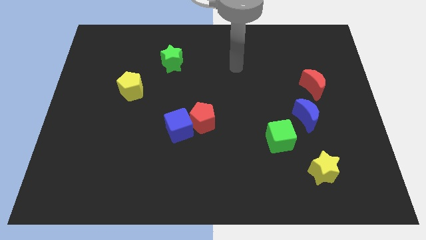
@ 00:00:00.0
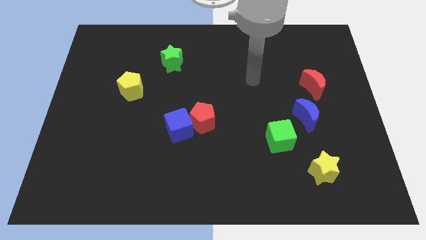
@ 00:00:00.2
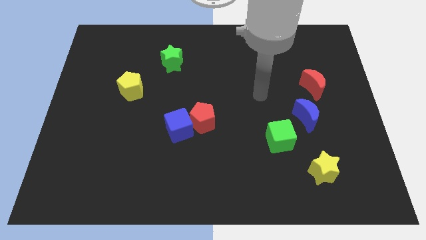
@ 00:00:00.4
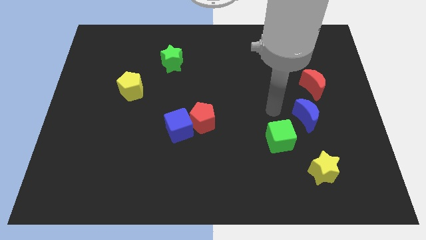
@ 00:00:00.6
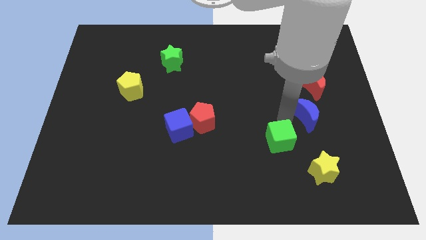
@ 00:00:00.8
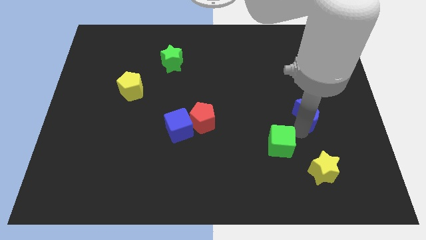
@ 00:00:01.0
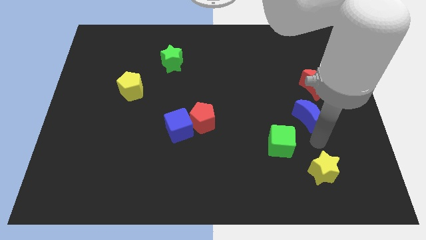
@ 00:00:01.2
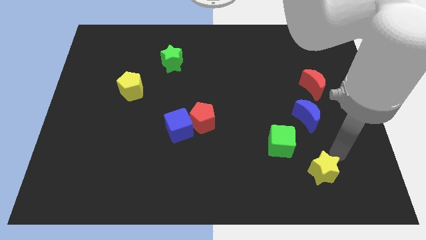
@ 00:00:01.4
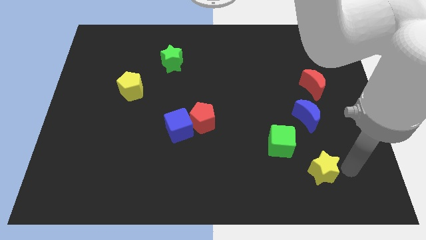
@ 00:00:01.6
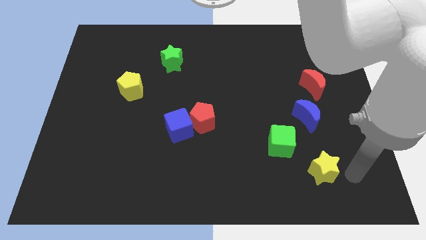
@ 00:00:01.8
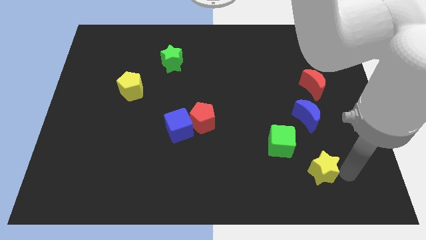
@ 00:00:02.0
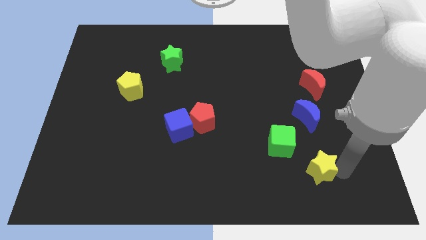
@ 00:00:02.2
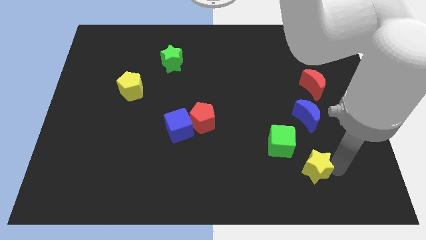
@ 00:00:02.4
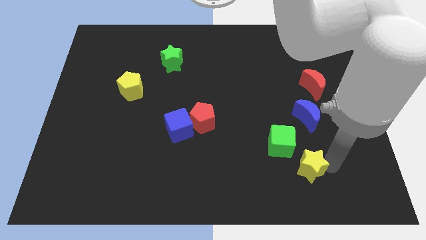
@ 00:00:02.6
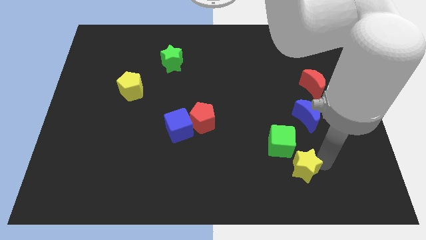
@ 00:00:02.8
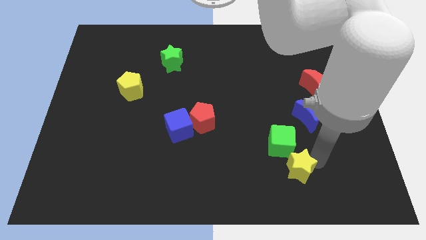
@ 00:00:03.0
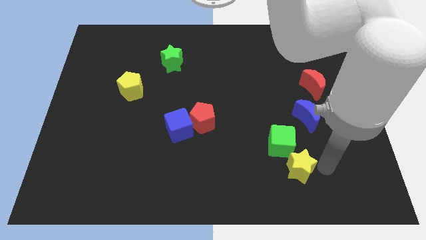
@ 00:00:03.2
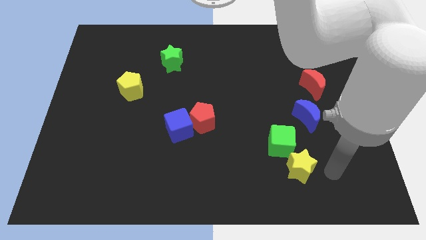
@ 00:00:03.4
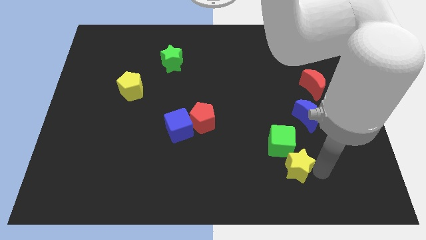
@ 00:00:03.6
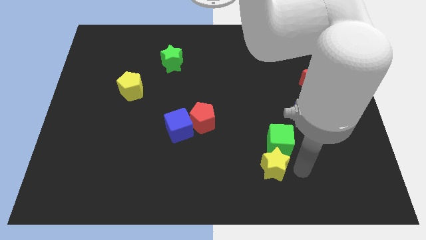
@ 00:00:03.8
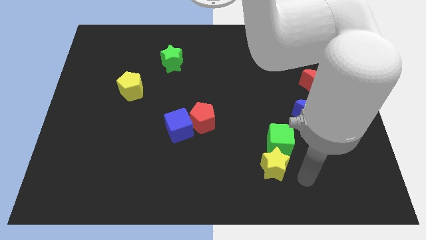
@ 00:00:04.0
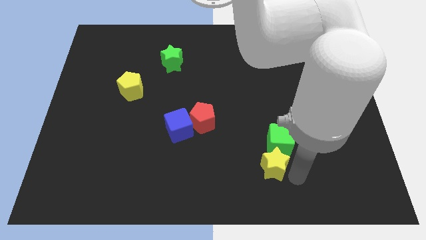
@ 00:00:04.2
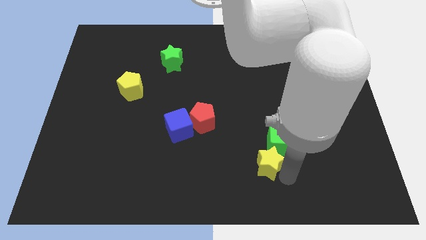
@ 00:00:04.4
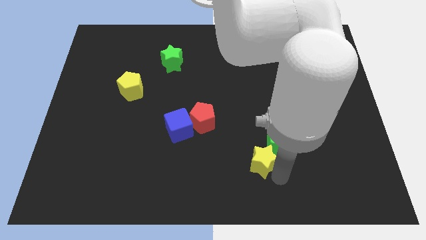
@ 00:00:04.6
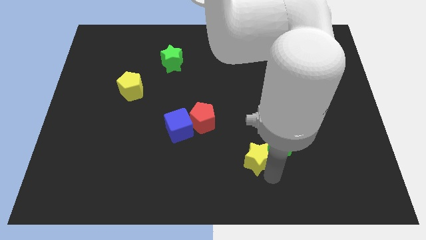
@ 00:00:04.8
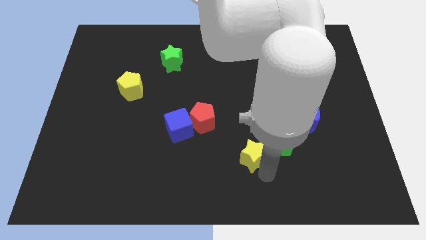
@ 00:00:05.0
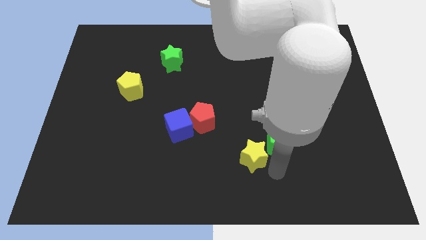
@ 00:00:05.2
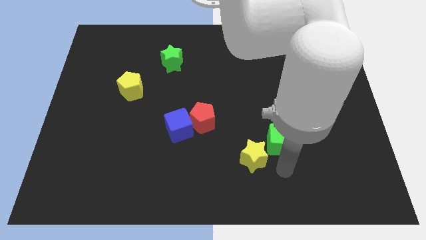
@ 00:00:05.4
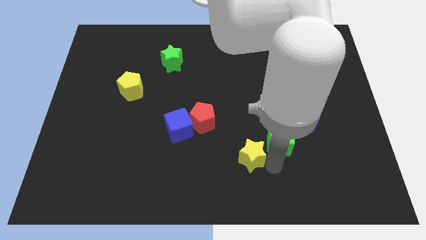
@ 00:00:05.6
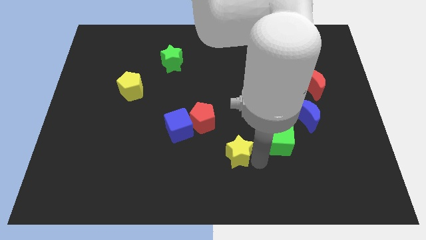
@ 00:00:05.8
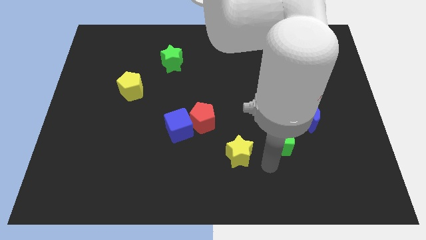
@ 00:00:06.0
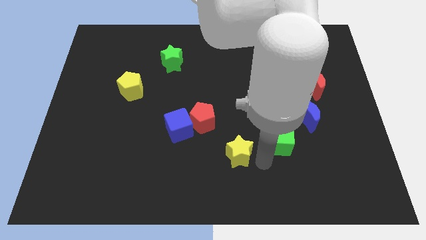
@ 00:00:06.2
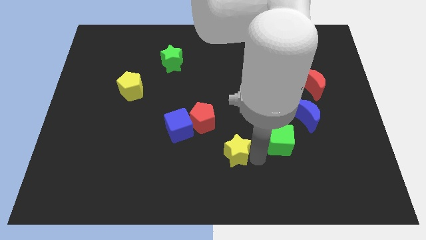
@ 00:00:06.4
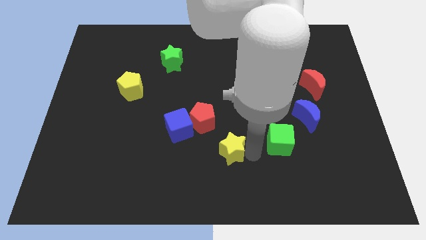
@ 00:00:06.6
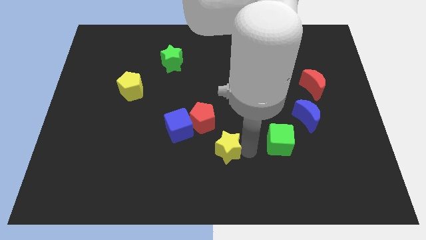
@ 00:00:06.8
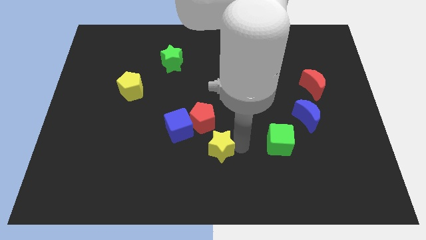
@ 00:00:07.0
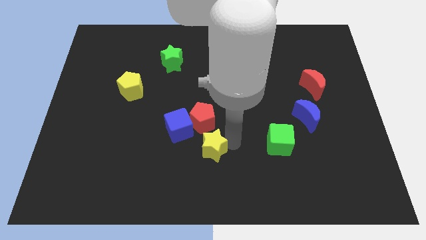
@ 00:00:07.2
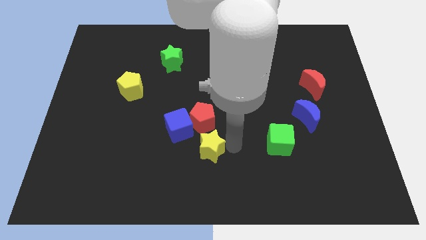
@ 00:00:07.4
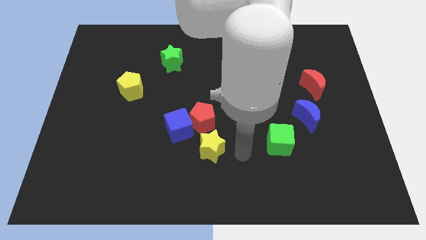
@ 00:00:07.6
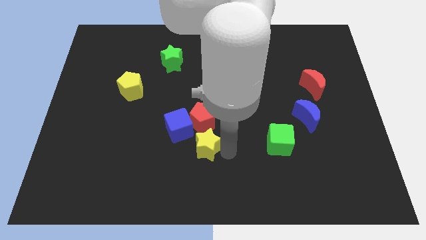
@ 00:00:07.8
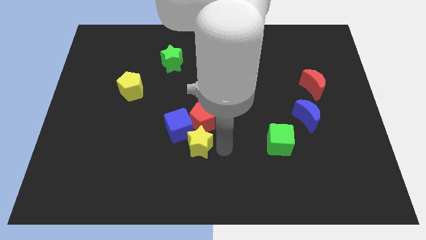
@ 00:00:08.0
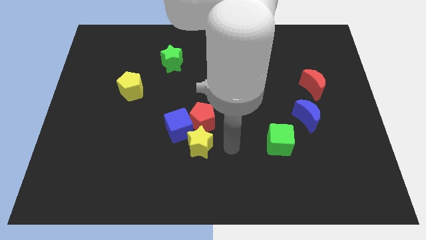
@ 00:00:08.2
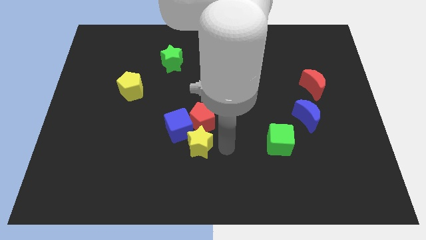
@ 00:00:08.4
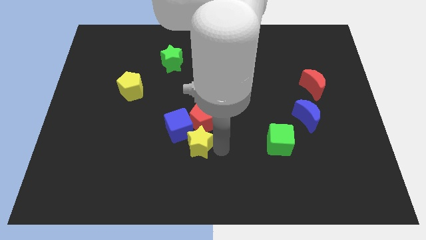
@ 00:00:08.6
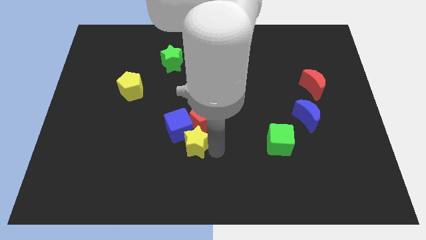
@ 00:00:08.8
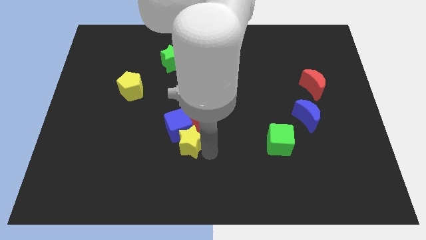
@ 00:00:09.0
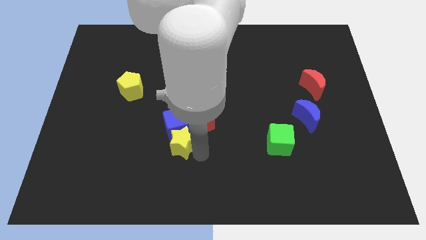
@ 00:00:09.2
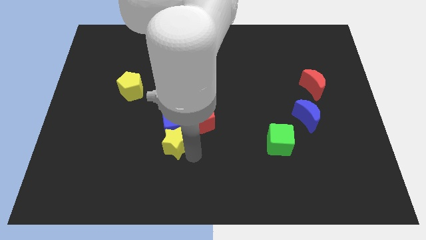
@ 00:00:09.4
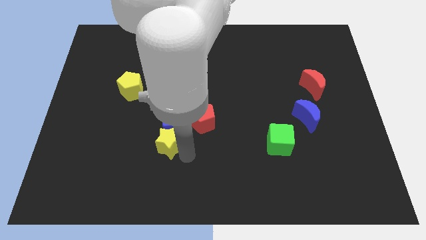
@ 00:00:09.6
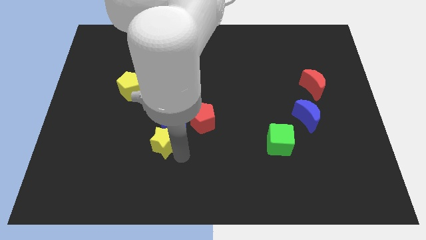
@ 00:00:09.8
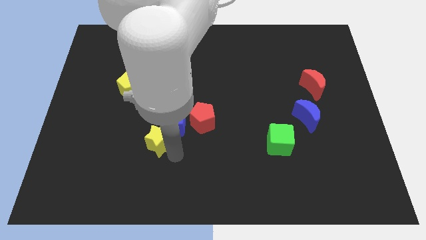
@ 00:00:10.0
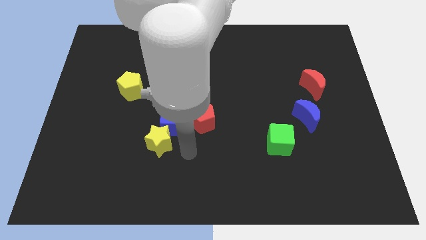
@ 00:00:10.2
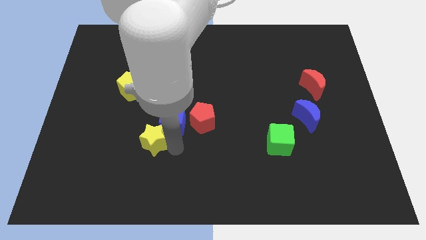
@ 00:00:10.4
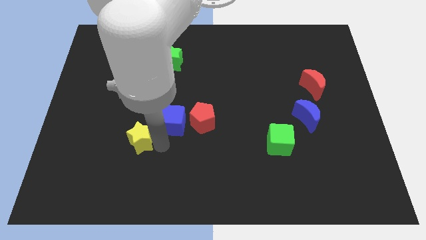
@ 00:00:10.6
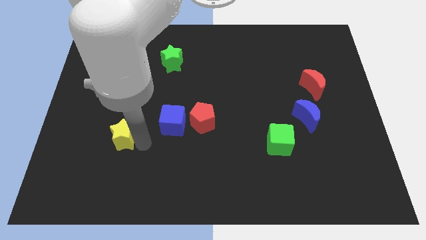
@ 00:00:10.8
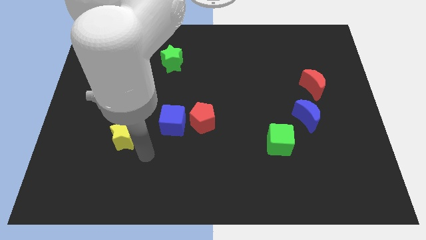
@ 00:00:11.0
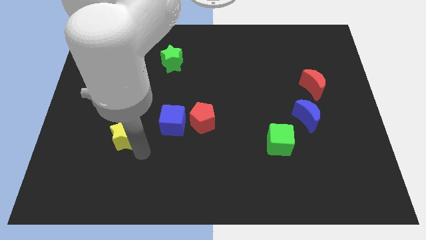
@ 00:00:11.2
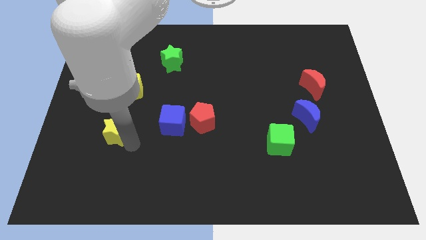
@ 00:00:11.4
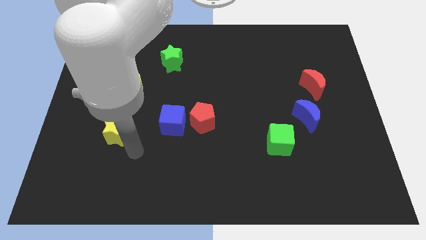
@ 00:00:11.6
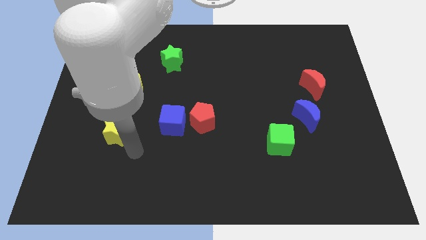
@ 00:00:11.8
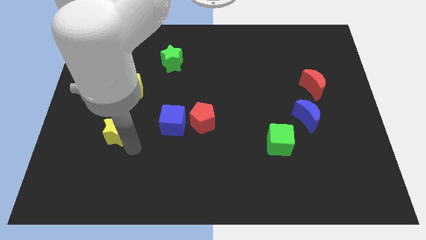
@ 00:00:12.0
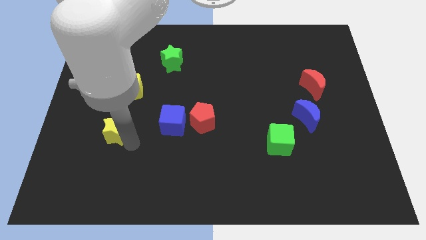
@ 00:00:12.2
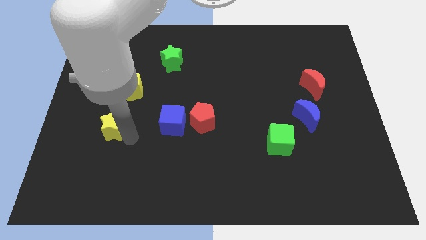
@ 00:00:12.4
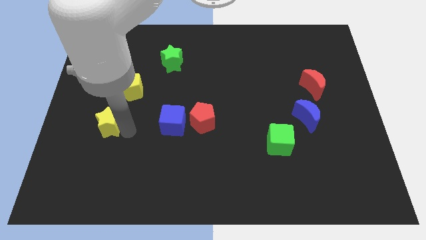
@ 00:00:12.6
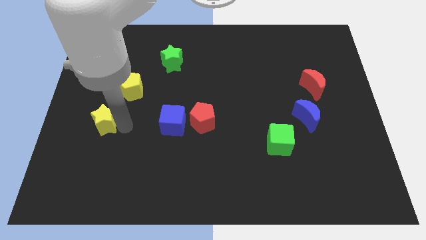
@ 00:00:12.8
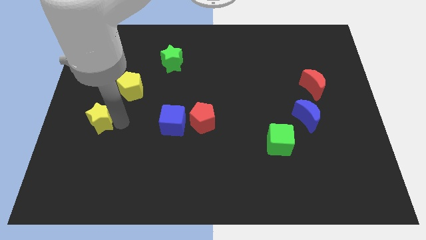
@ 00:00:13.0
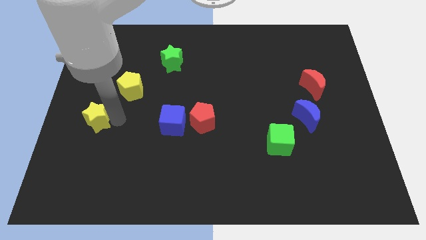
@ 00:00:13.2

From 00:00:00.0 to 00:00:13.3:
push the yellow star to the center left
